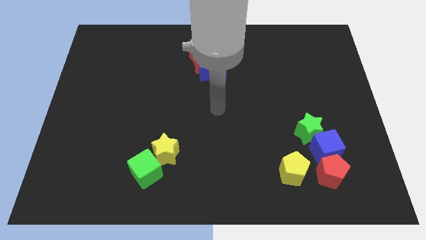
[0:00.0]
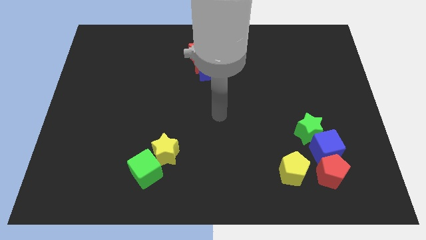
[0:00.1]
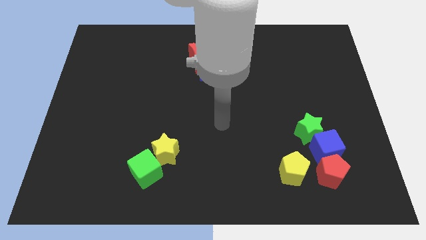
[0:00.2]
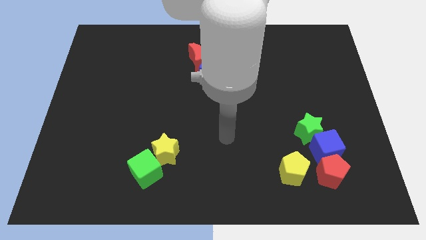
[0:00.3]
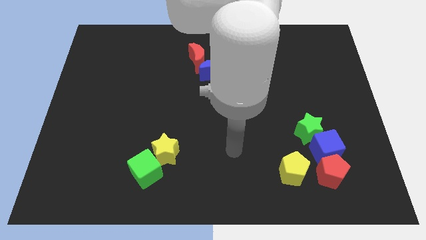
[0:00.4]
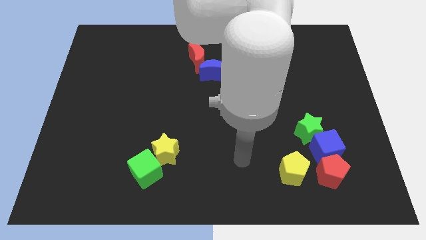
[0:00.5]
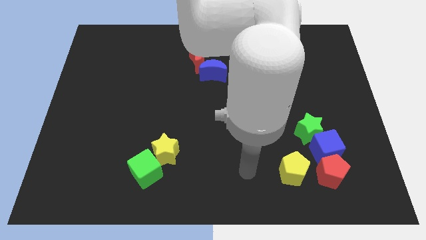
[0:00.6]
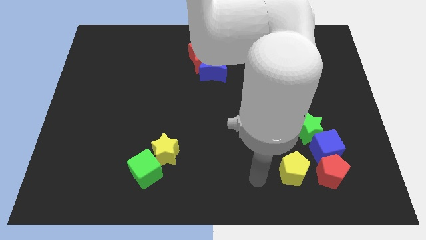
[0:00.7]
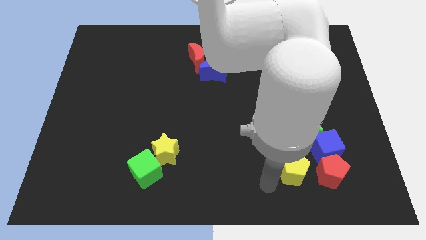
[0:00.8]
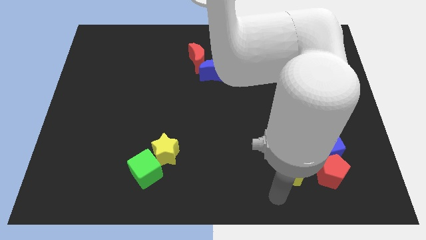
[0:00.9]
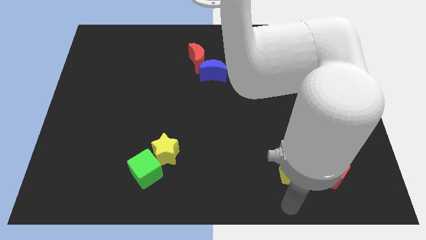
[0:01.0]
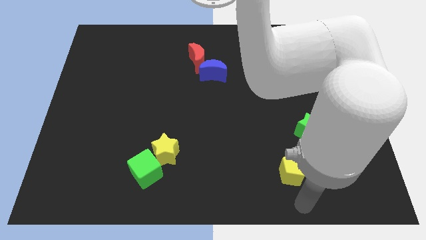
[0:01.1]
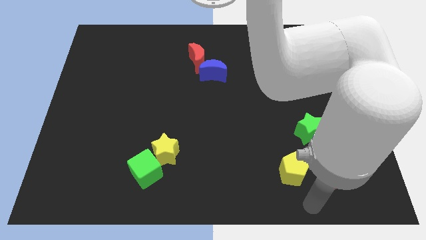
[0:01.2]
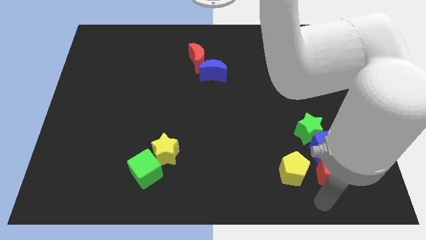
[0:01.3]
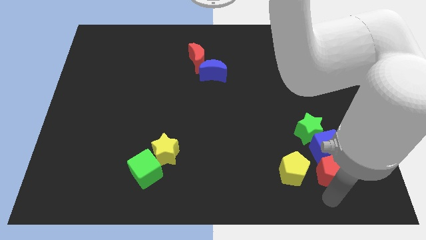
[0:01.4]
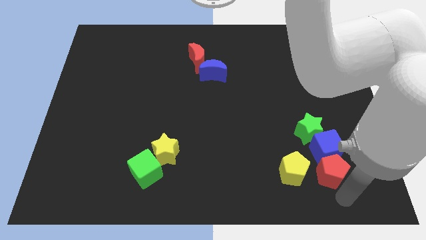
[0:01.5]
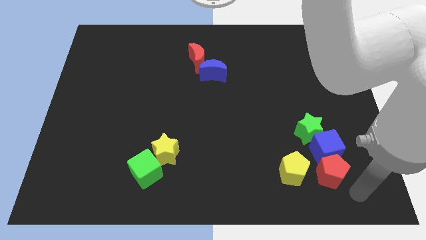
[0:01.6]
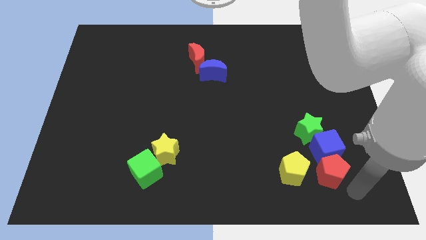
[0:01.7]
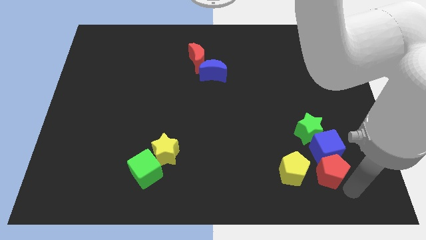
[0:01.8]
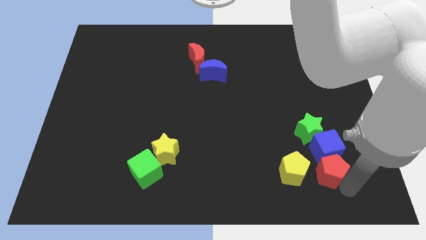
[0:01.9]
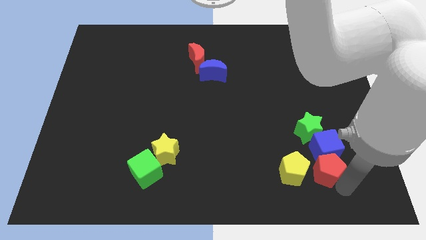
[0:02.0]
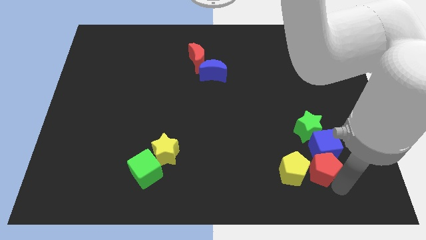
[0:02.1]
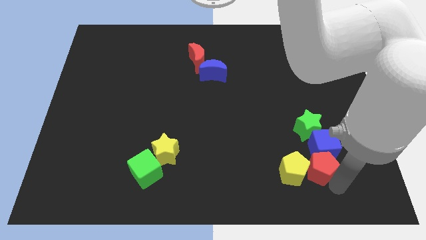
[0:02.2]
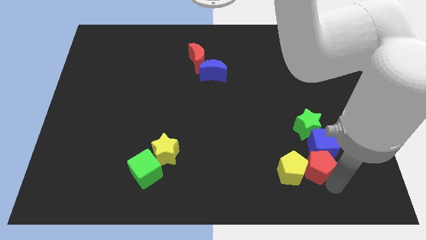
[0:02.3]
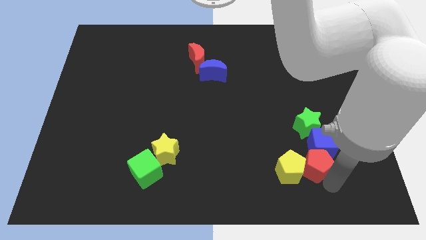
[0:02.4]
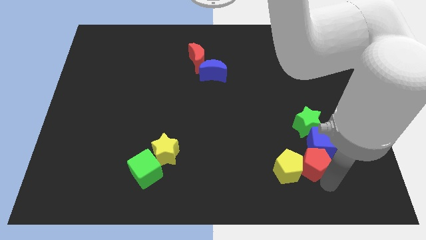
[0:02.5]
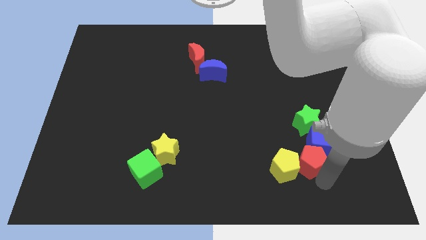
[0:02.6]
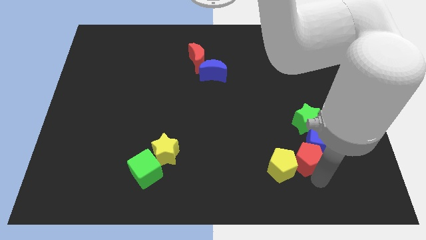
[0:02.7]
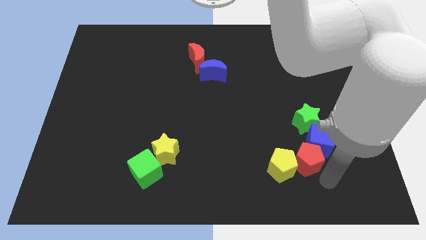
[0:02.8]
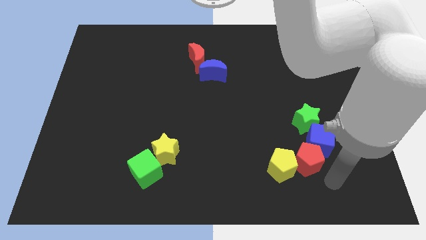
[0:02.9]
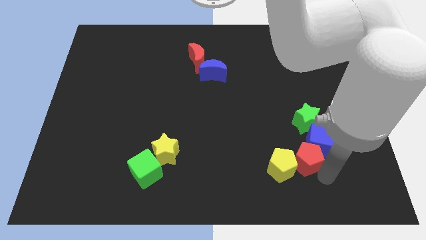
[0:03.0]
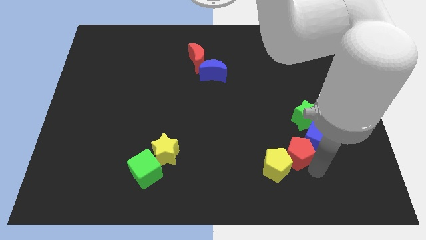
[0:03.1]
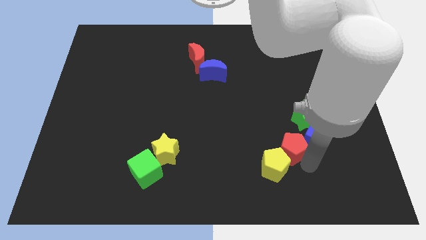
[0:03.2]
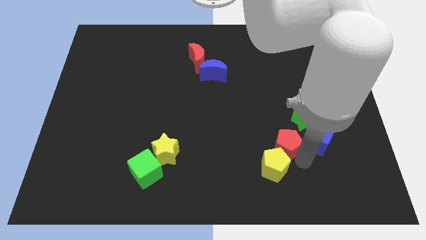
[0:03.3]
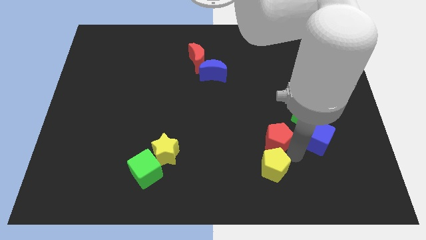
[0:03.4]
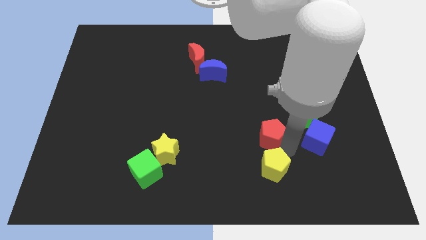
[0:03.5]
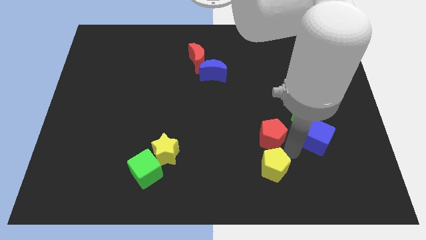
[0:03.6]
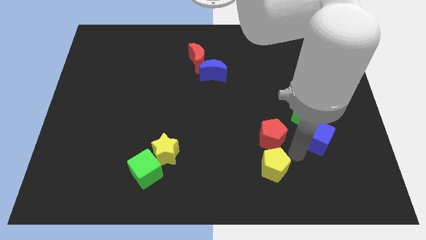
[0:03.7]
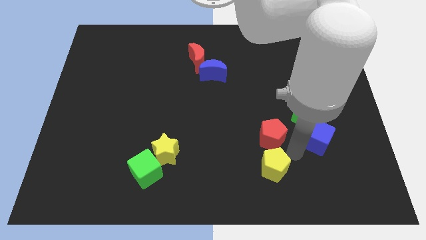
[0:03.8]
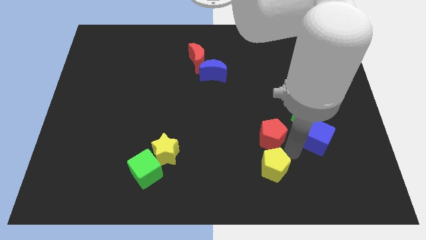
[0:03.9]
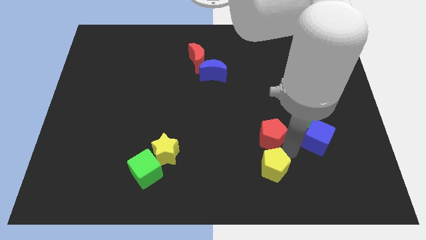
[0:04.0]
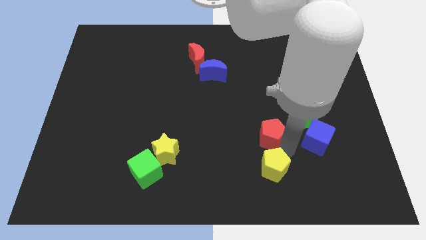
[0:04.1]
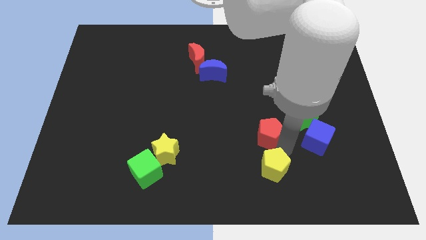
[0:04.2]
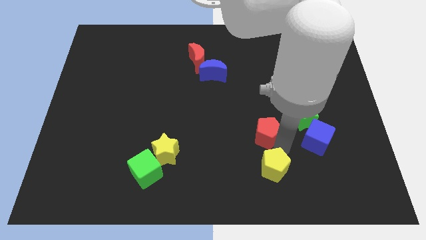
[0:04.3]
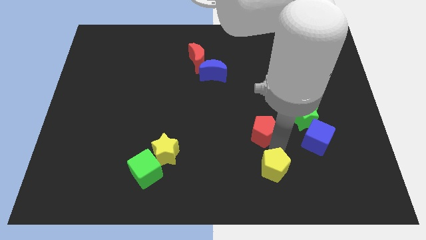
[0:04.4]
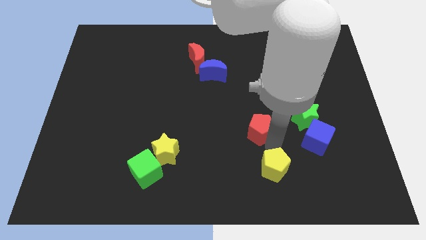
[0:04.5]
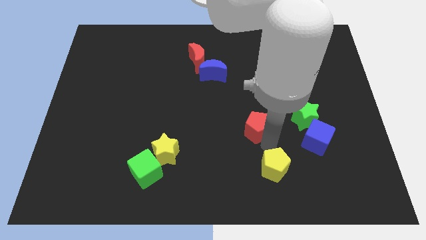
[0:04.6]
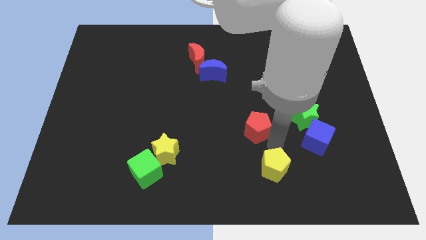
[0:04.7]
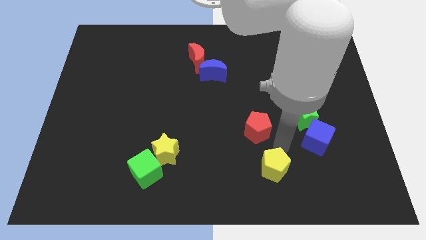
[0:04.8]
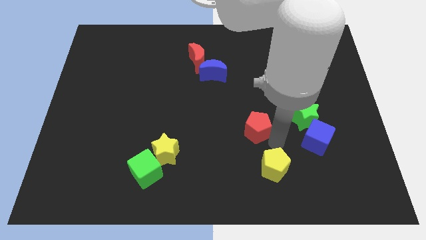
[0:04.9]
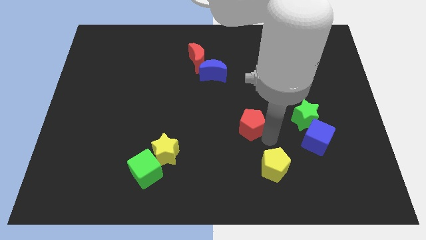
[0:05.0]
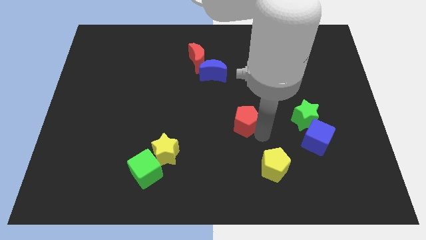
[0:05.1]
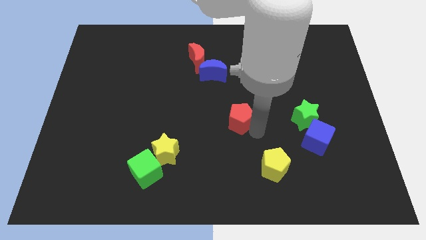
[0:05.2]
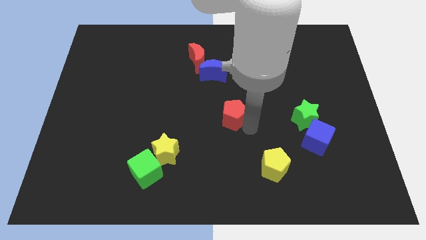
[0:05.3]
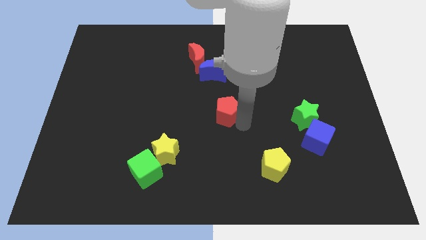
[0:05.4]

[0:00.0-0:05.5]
push the red pentagon to the bottom of the blue moon
